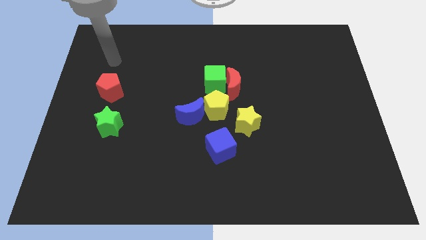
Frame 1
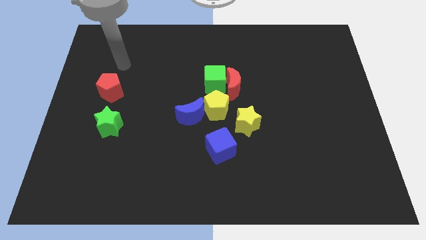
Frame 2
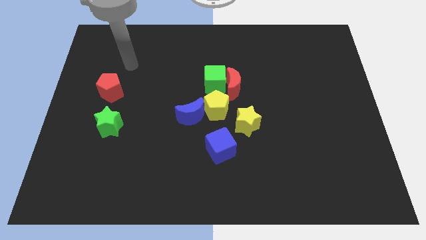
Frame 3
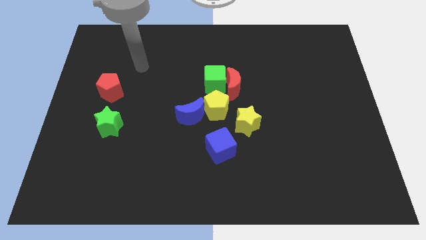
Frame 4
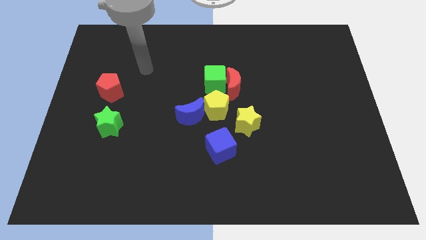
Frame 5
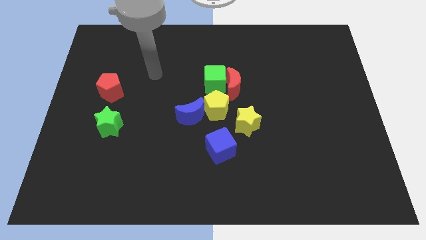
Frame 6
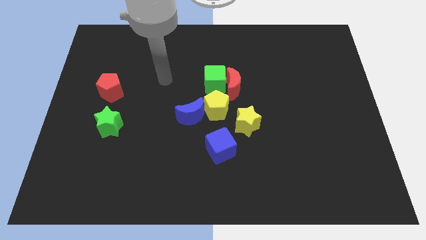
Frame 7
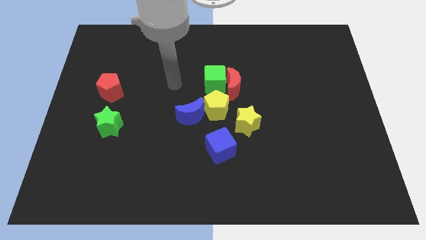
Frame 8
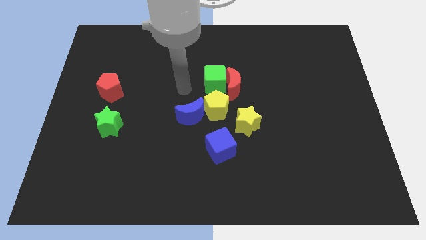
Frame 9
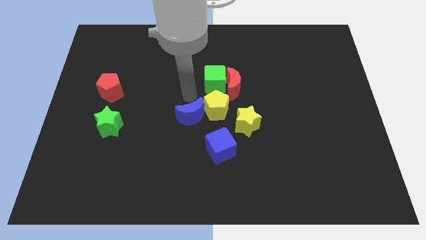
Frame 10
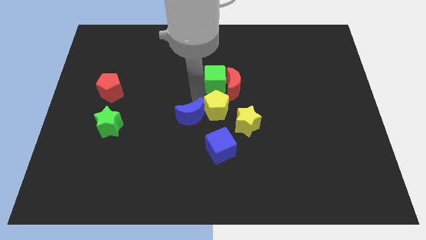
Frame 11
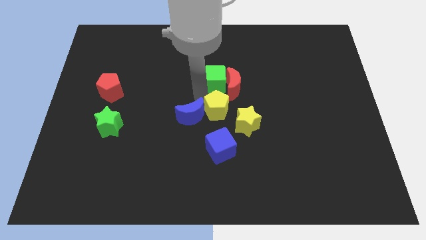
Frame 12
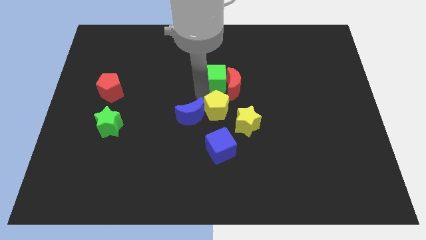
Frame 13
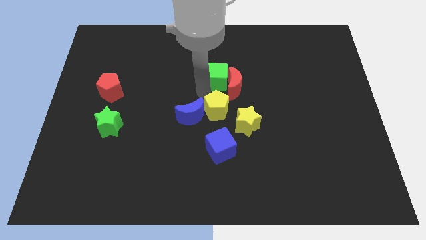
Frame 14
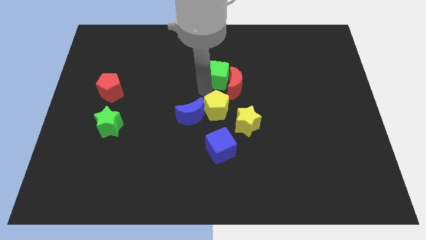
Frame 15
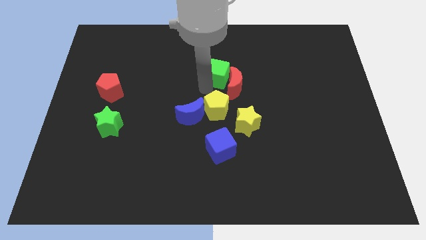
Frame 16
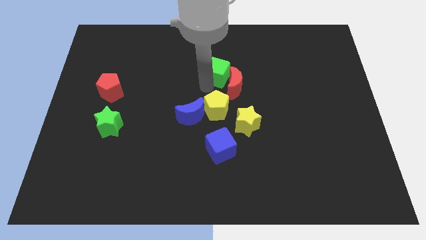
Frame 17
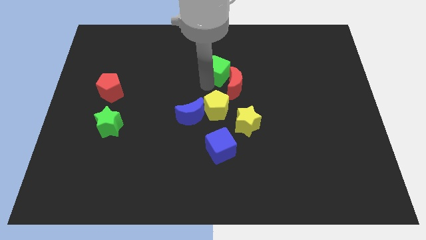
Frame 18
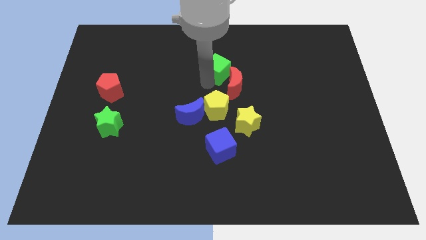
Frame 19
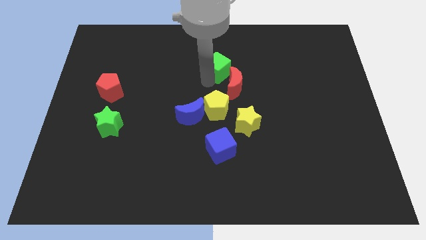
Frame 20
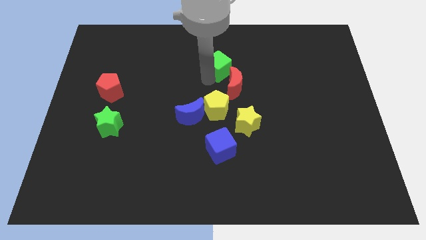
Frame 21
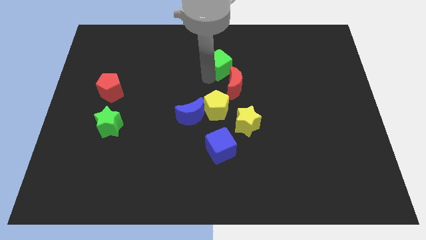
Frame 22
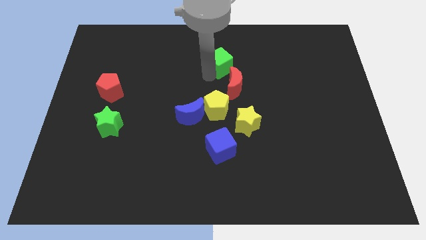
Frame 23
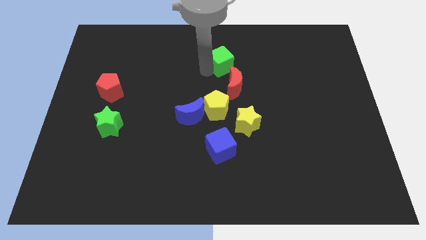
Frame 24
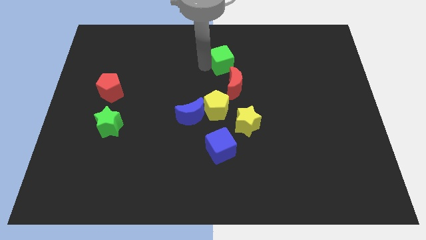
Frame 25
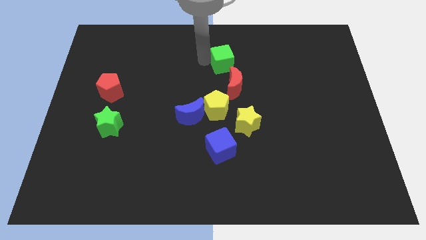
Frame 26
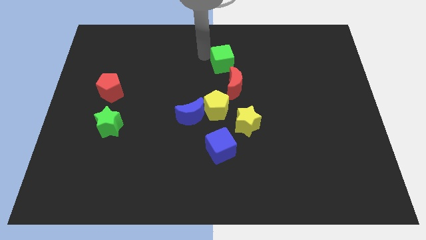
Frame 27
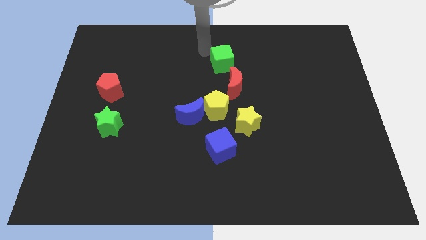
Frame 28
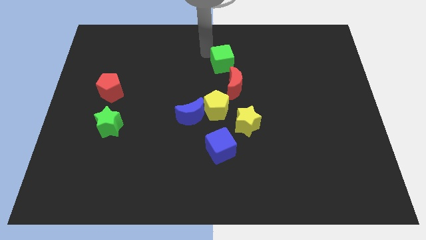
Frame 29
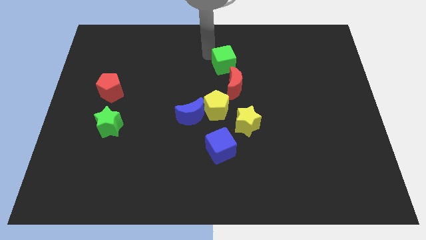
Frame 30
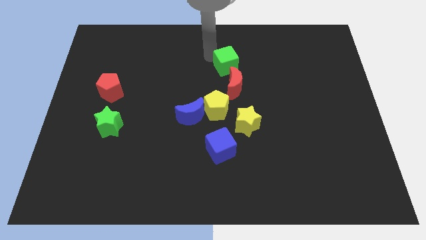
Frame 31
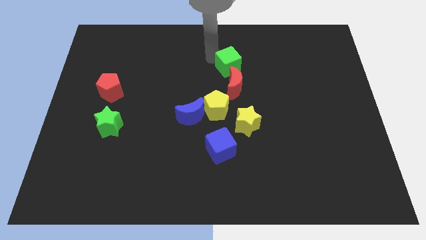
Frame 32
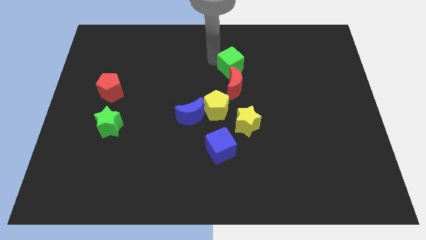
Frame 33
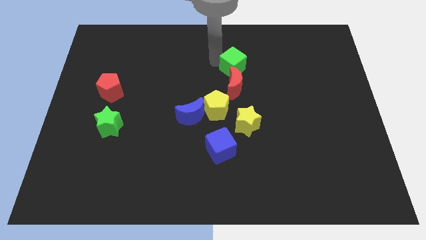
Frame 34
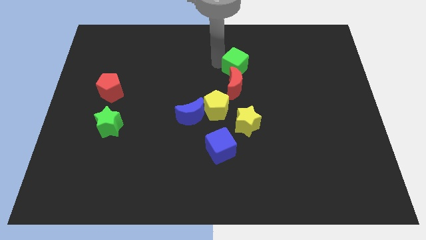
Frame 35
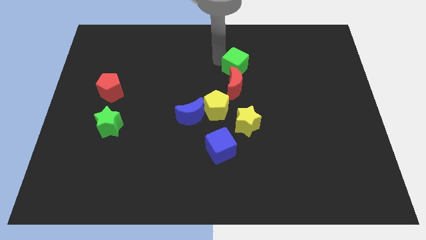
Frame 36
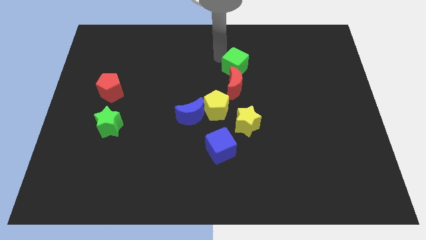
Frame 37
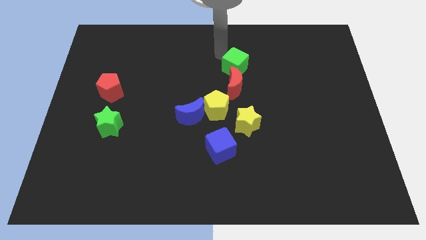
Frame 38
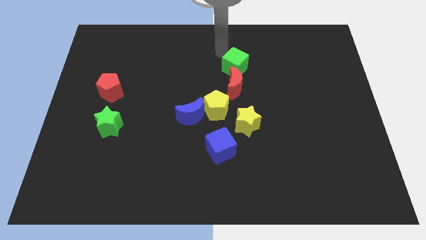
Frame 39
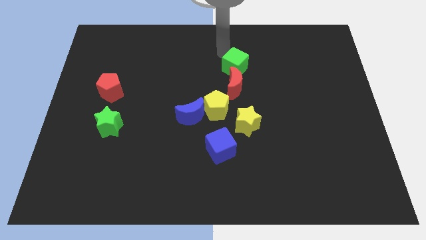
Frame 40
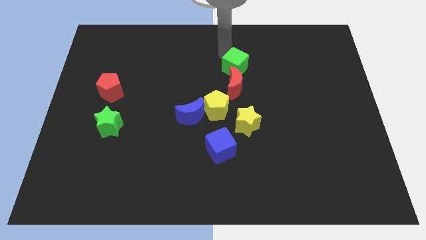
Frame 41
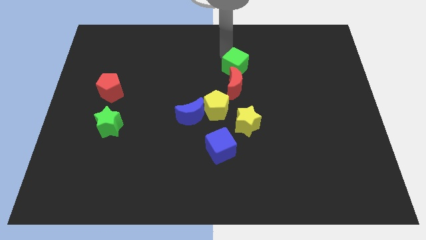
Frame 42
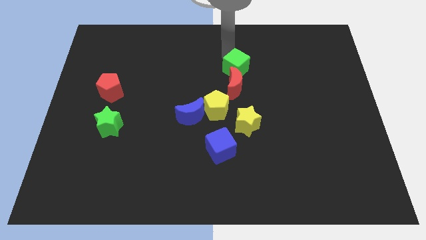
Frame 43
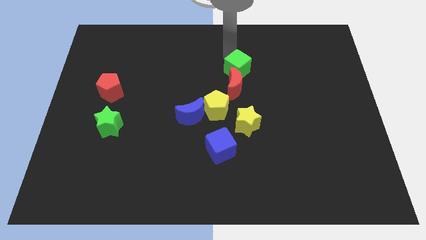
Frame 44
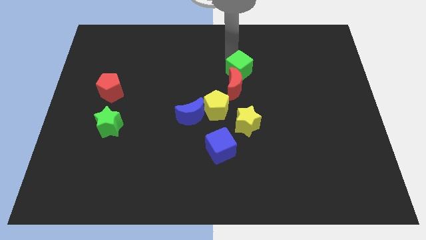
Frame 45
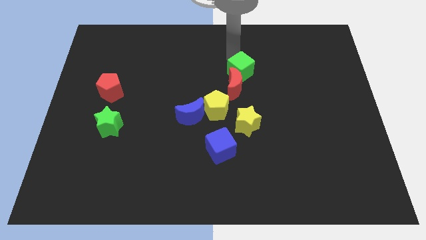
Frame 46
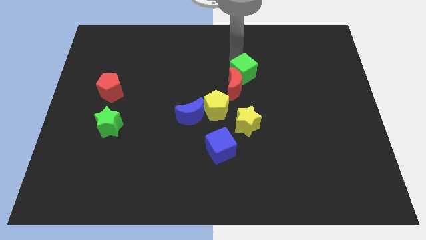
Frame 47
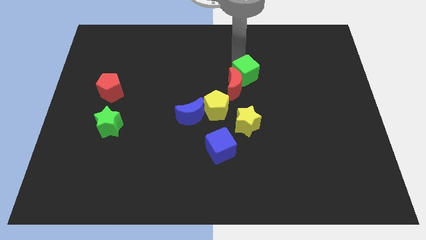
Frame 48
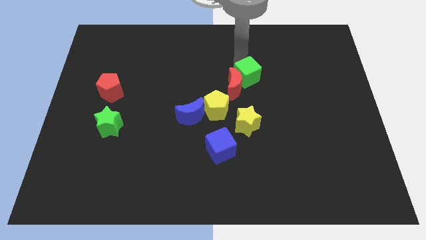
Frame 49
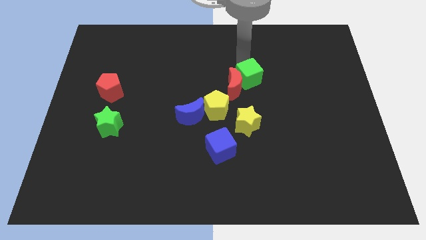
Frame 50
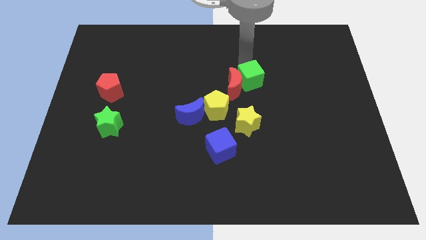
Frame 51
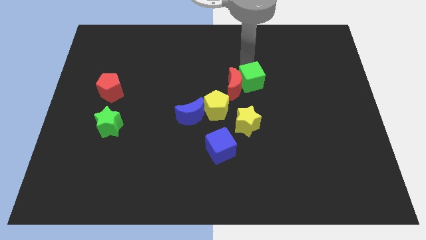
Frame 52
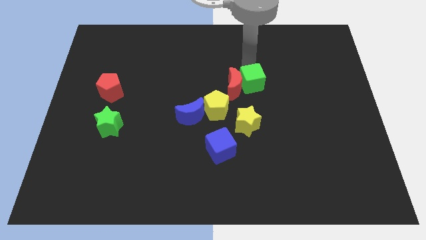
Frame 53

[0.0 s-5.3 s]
slide the green cube diagonally down and to the right of the red moon

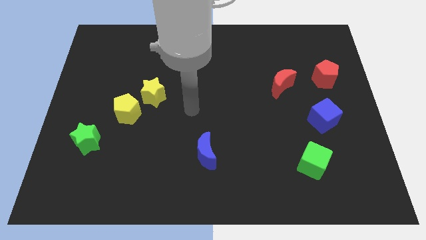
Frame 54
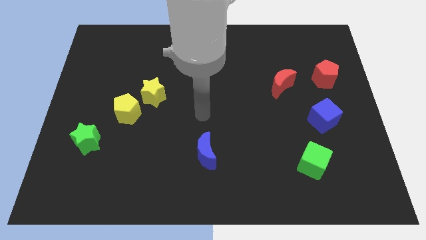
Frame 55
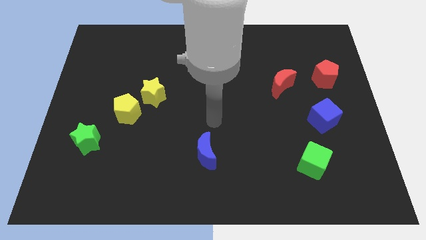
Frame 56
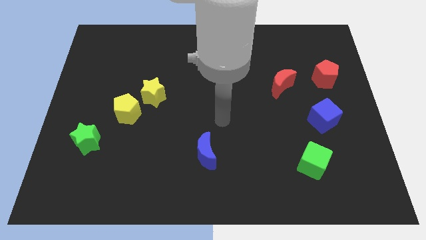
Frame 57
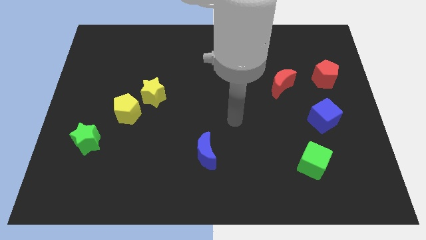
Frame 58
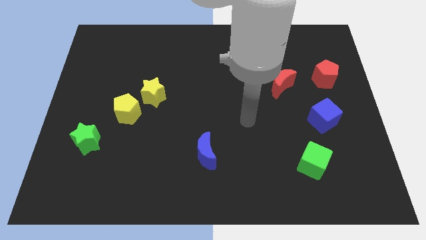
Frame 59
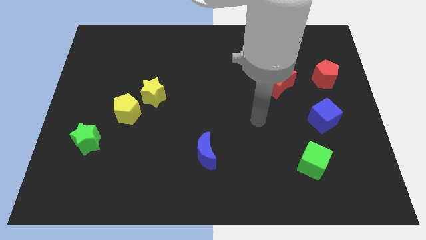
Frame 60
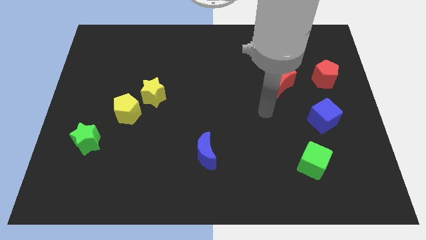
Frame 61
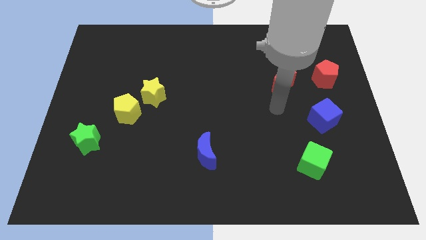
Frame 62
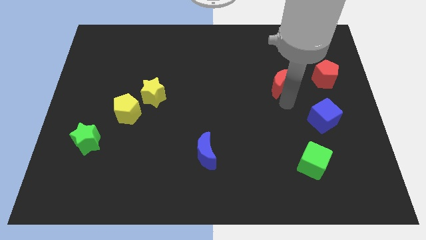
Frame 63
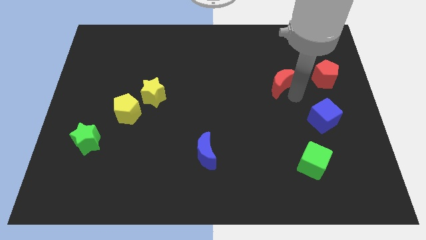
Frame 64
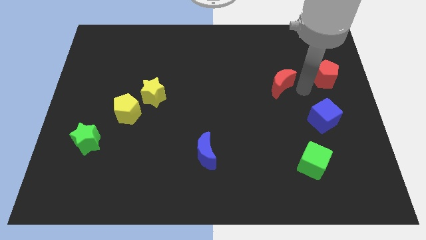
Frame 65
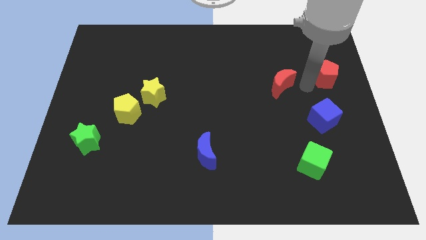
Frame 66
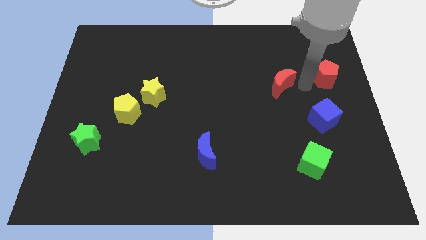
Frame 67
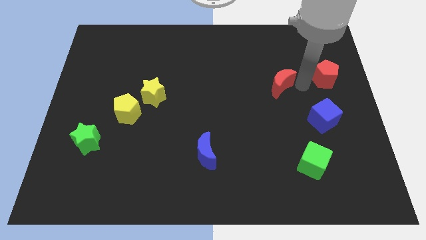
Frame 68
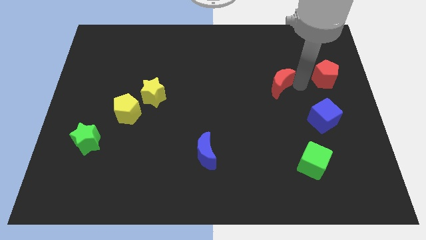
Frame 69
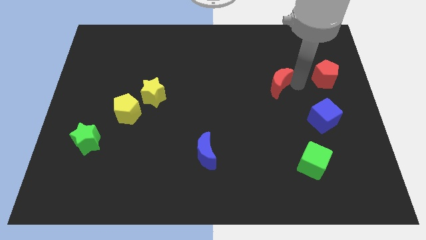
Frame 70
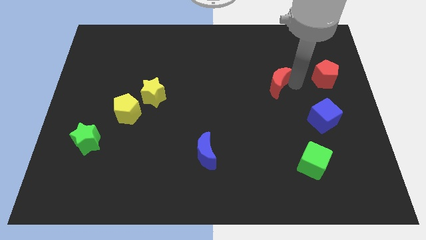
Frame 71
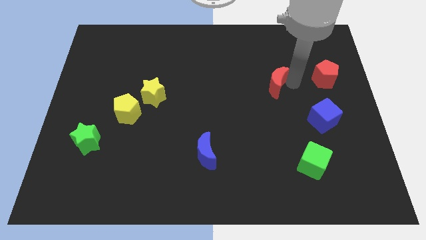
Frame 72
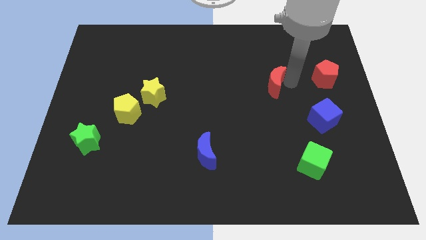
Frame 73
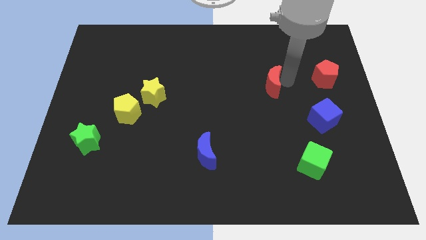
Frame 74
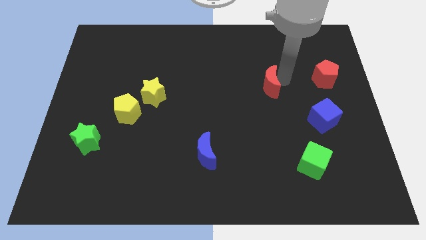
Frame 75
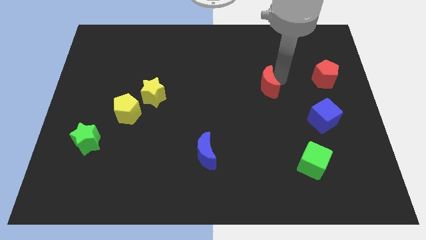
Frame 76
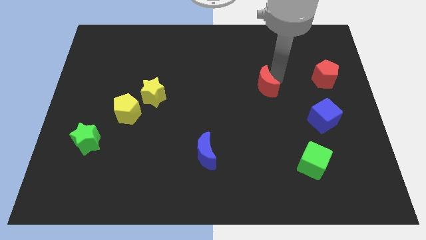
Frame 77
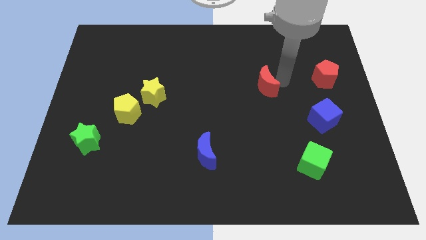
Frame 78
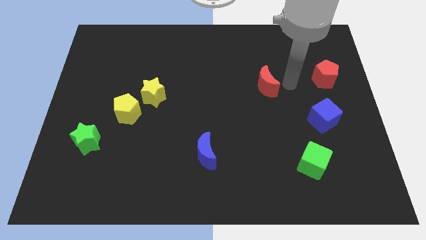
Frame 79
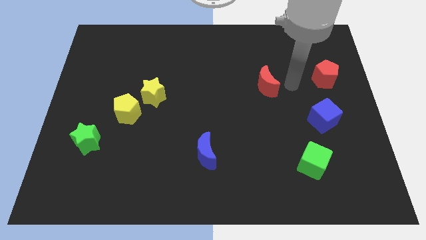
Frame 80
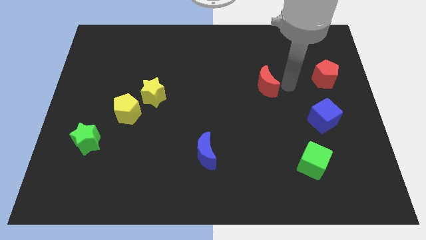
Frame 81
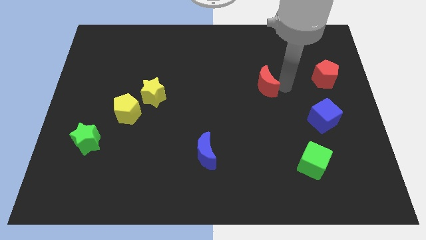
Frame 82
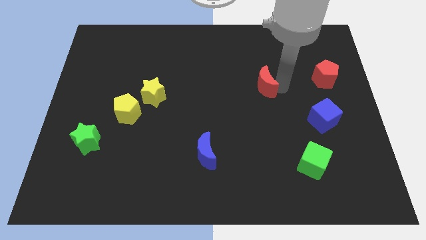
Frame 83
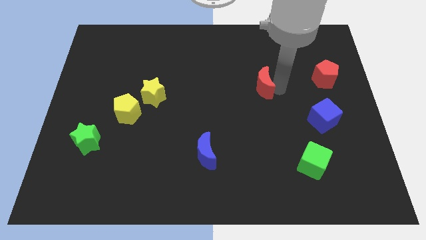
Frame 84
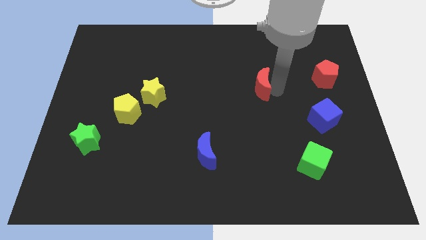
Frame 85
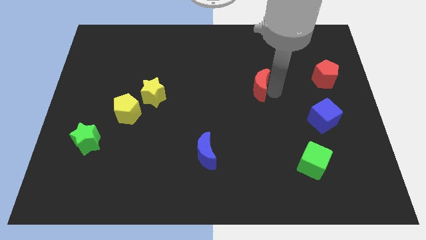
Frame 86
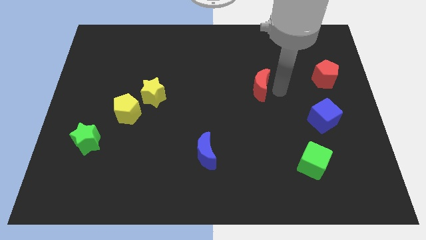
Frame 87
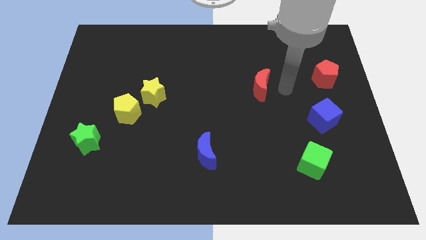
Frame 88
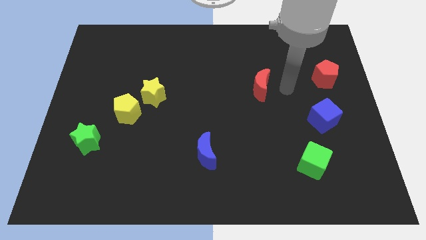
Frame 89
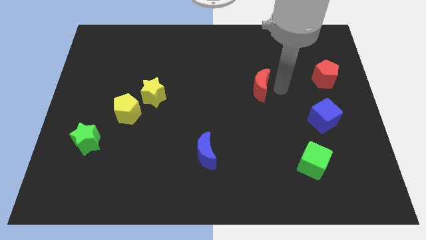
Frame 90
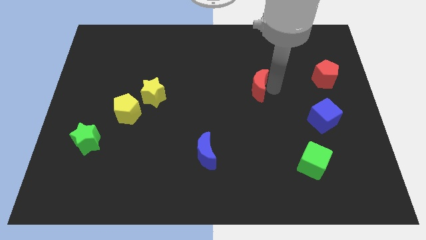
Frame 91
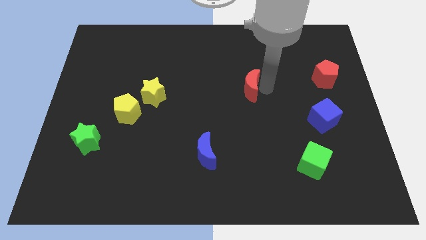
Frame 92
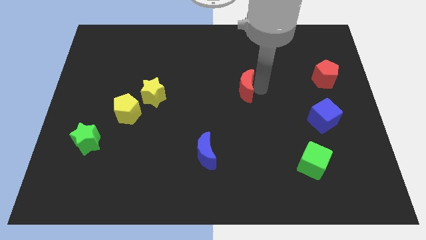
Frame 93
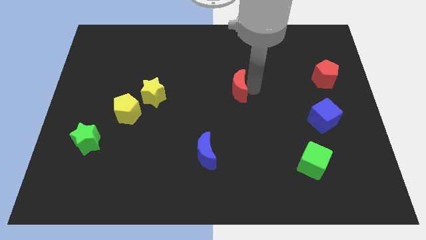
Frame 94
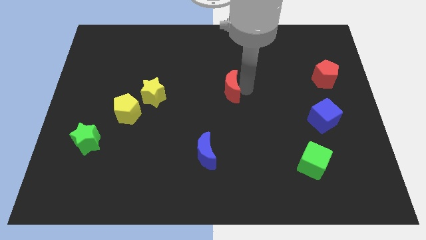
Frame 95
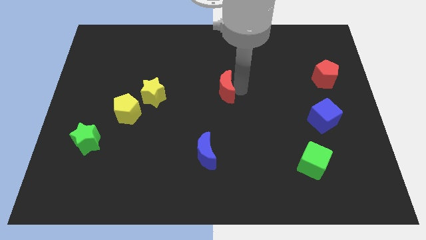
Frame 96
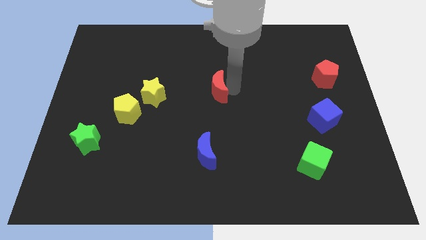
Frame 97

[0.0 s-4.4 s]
move the red moon right of the yellow star
